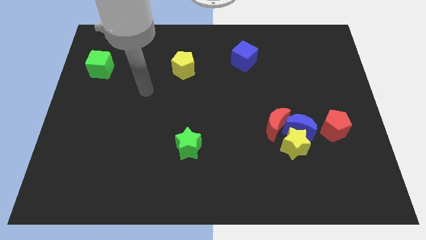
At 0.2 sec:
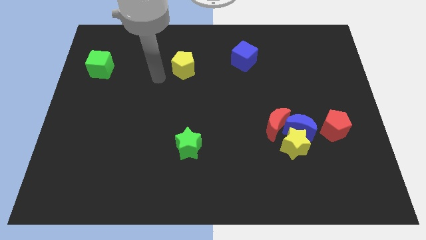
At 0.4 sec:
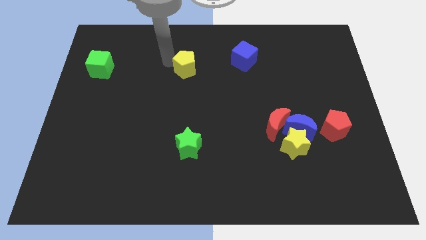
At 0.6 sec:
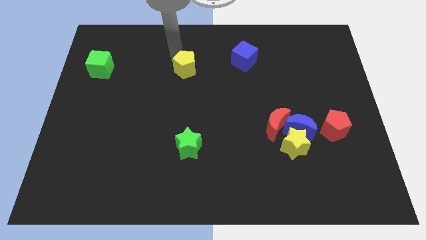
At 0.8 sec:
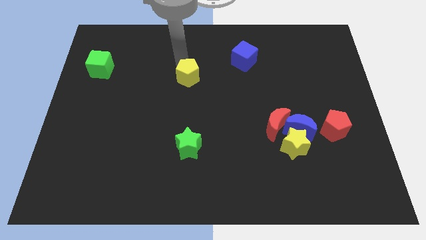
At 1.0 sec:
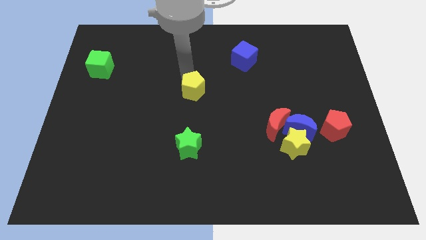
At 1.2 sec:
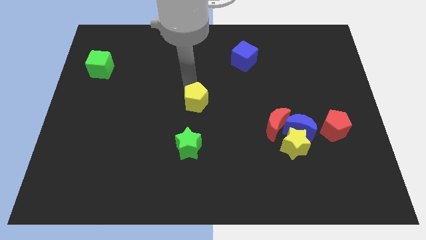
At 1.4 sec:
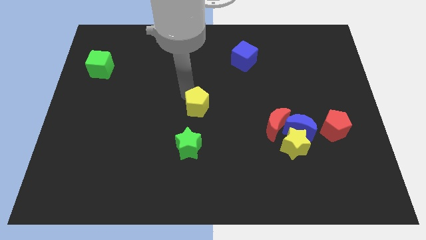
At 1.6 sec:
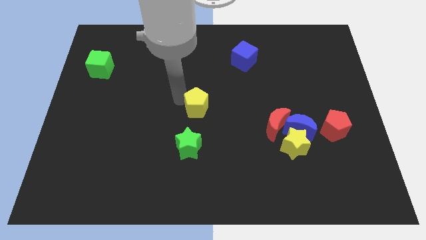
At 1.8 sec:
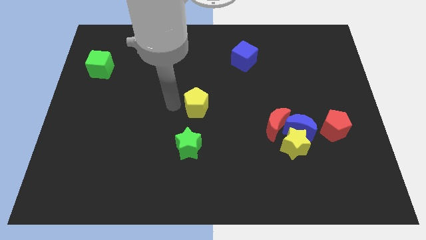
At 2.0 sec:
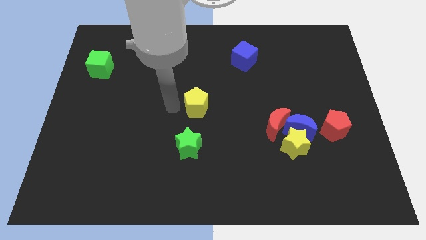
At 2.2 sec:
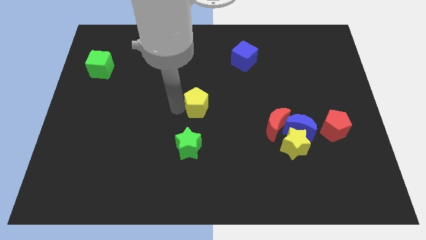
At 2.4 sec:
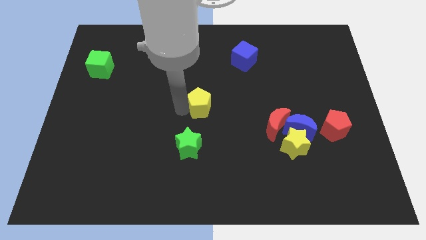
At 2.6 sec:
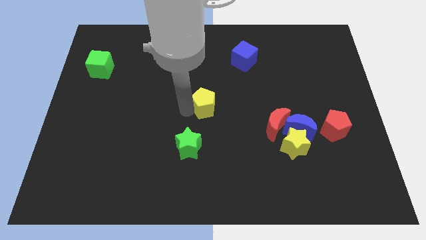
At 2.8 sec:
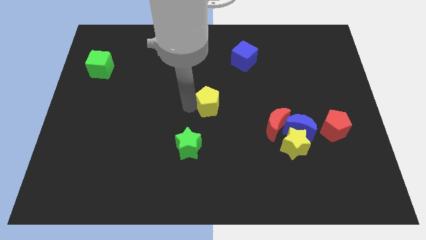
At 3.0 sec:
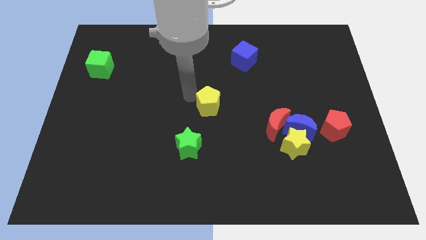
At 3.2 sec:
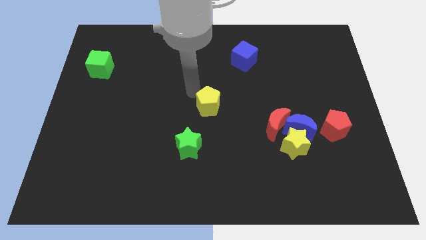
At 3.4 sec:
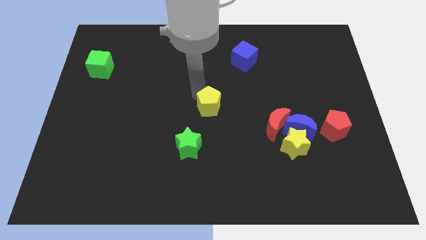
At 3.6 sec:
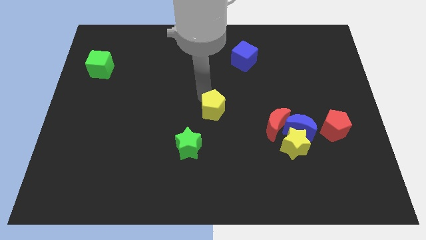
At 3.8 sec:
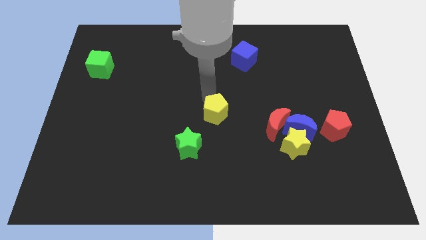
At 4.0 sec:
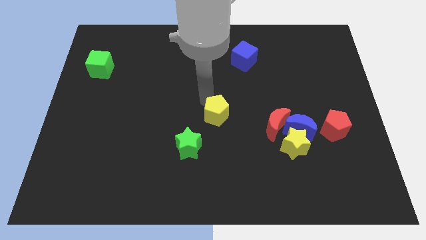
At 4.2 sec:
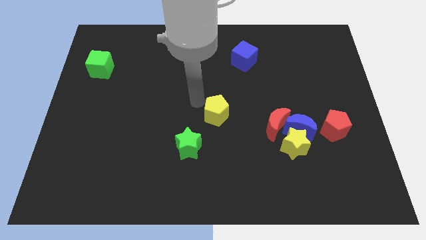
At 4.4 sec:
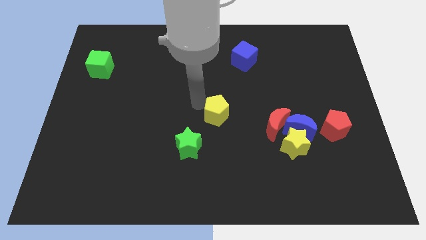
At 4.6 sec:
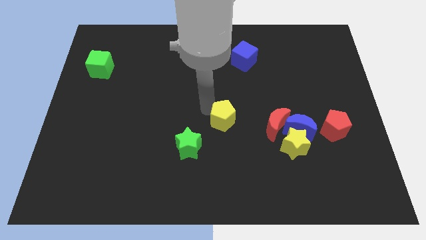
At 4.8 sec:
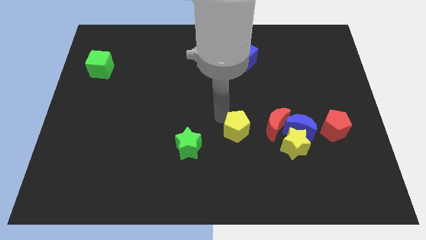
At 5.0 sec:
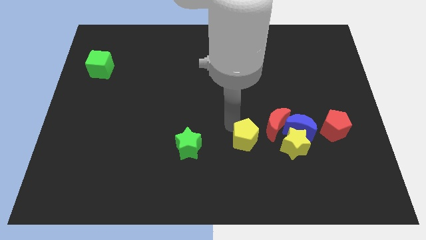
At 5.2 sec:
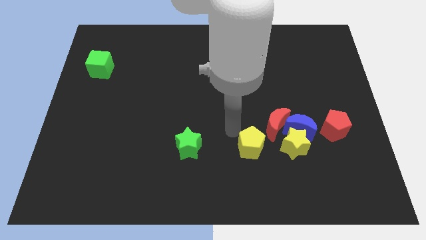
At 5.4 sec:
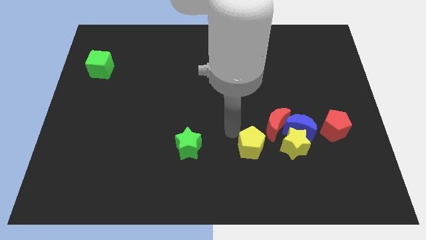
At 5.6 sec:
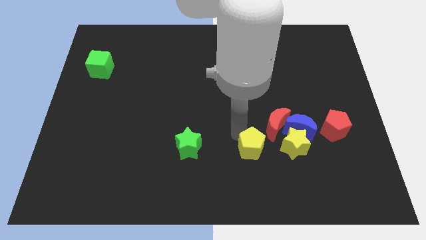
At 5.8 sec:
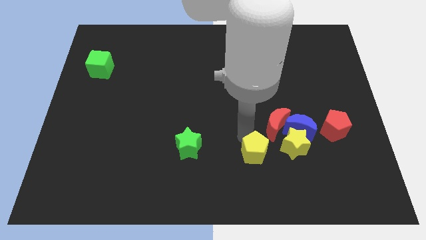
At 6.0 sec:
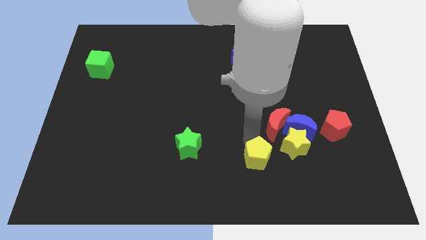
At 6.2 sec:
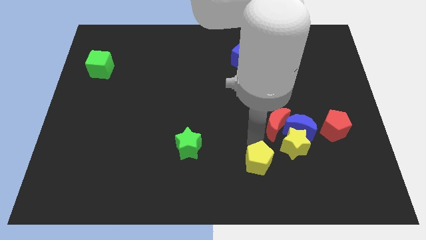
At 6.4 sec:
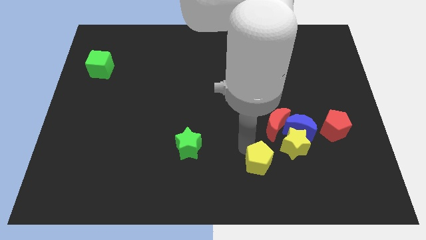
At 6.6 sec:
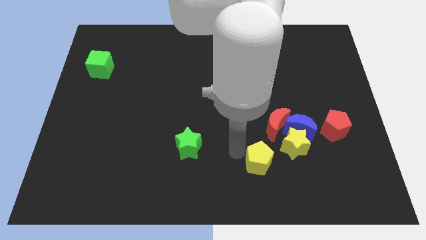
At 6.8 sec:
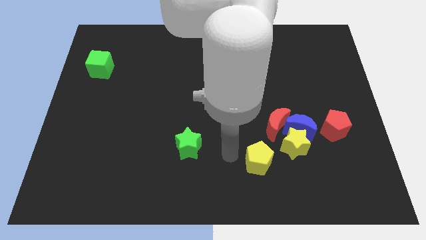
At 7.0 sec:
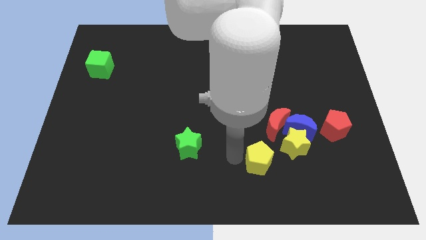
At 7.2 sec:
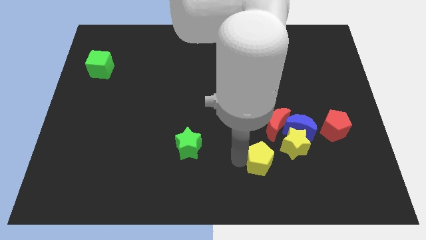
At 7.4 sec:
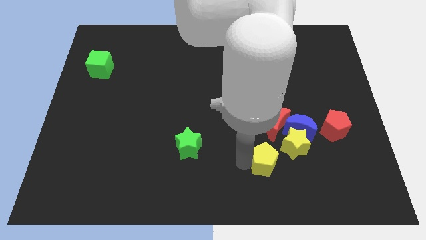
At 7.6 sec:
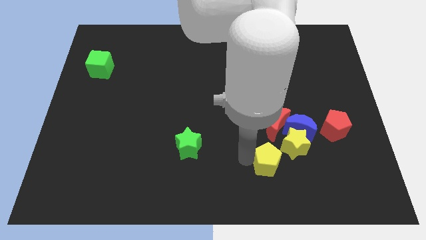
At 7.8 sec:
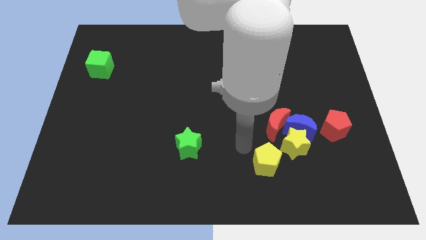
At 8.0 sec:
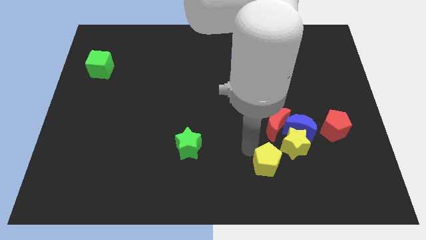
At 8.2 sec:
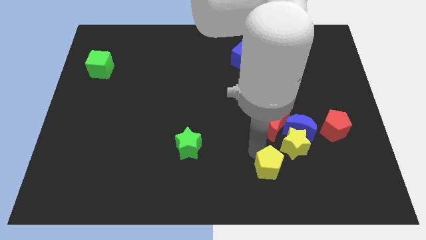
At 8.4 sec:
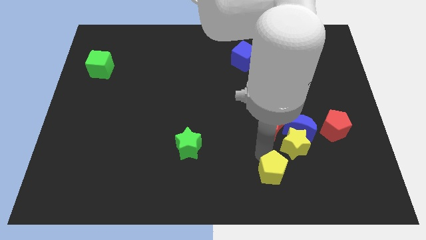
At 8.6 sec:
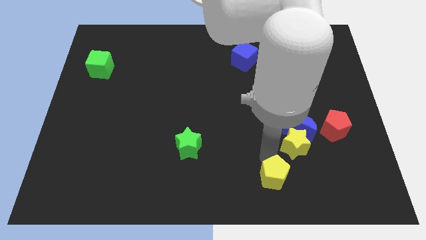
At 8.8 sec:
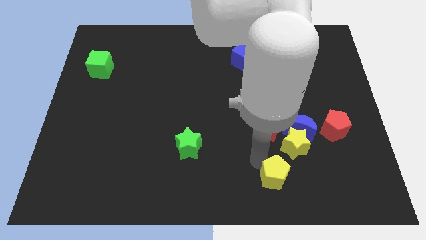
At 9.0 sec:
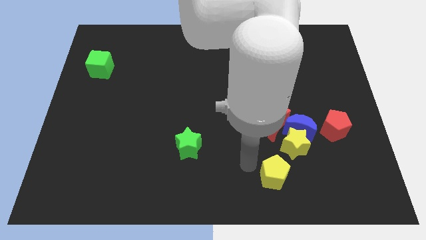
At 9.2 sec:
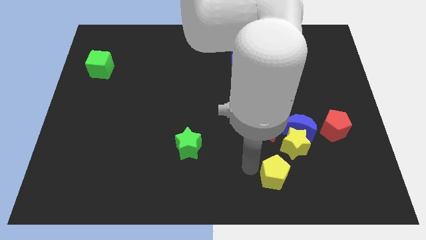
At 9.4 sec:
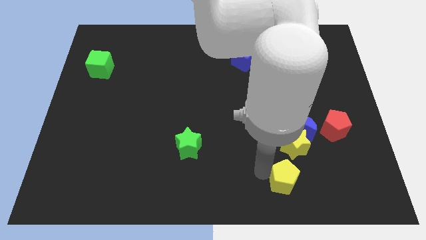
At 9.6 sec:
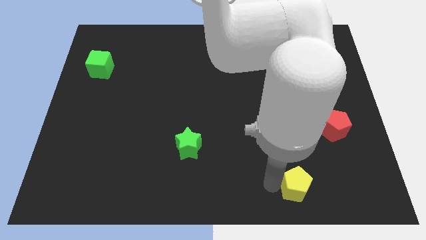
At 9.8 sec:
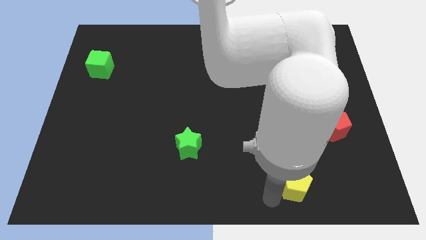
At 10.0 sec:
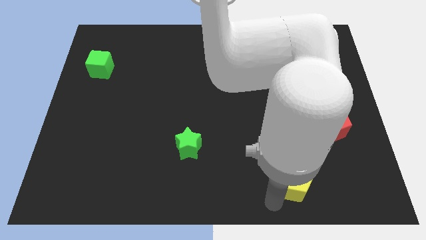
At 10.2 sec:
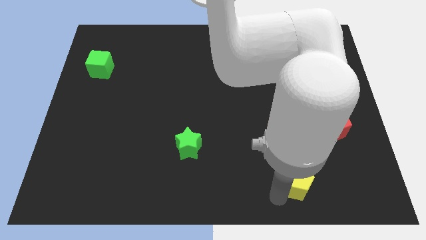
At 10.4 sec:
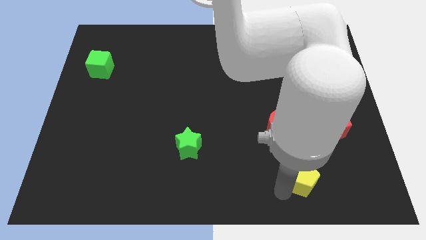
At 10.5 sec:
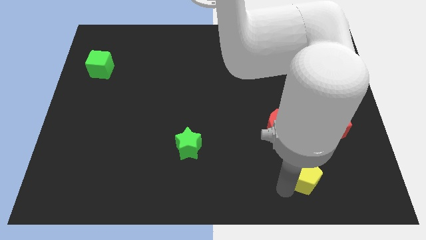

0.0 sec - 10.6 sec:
put the yellow pentagon to the bottom right side of the yellow star

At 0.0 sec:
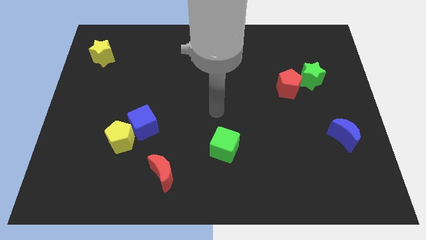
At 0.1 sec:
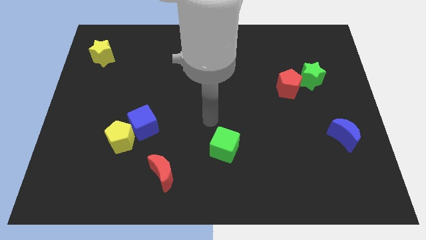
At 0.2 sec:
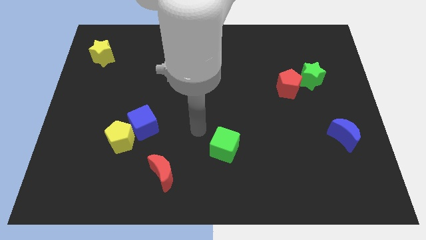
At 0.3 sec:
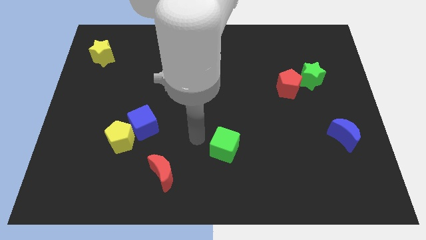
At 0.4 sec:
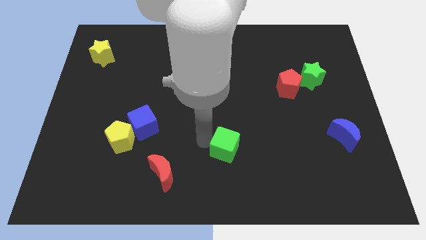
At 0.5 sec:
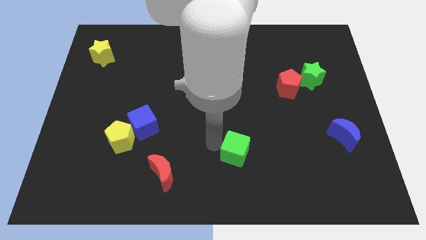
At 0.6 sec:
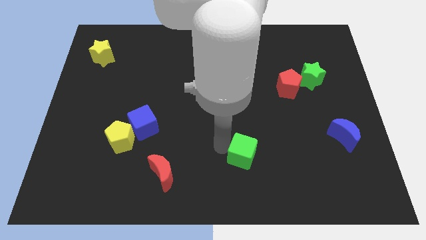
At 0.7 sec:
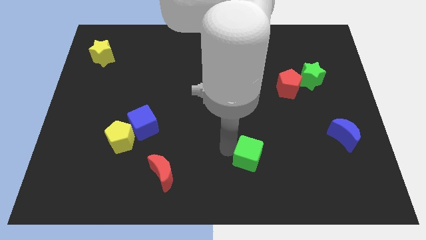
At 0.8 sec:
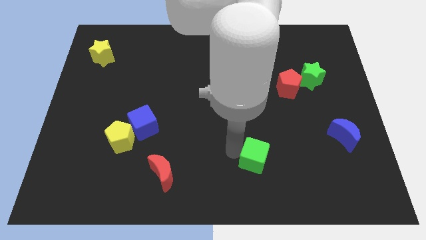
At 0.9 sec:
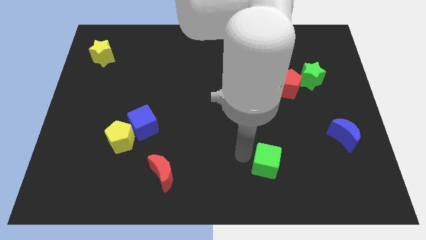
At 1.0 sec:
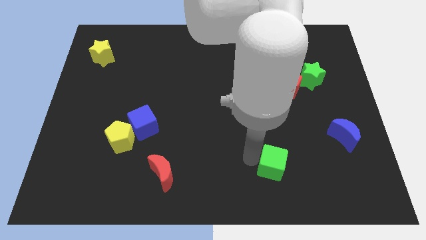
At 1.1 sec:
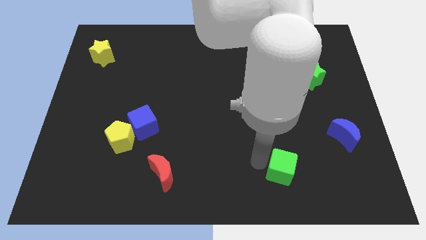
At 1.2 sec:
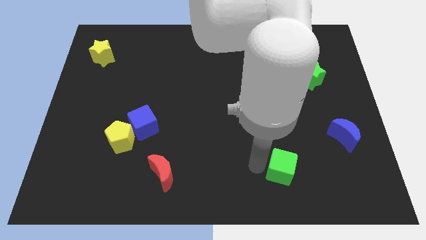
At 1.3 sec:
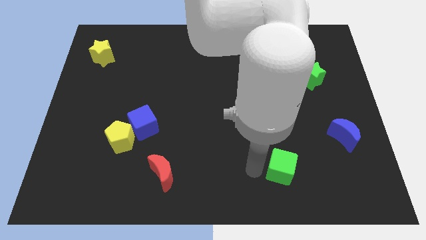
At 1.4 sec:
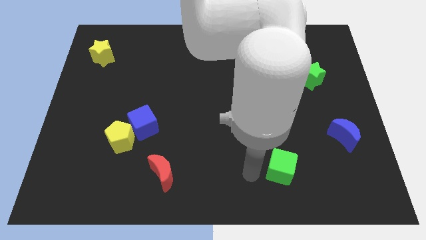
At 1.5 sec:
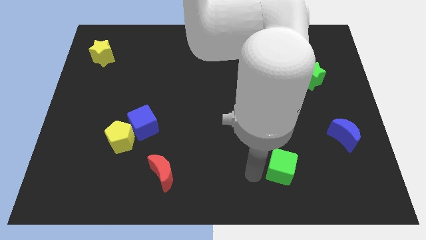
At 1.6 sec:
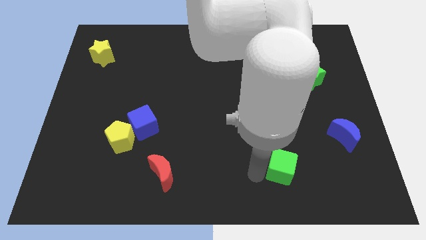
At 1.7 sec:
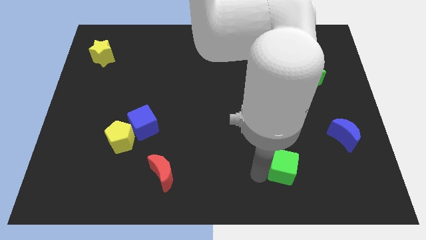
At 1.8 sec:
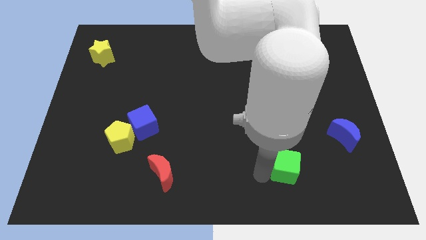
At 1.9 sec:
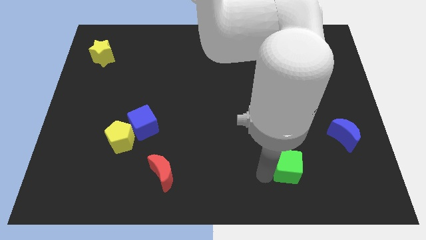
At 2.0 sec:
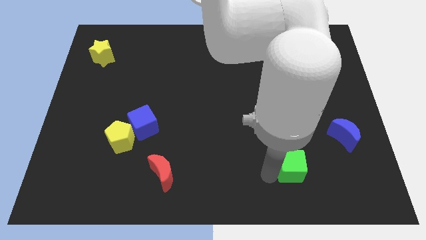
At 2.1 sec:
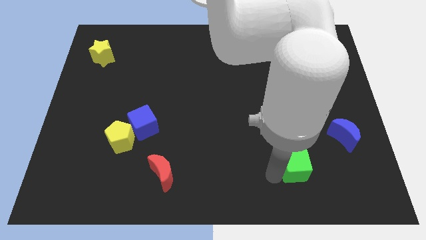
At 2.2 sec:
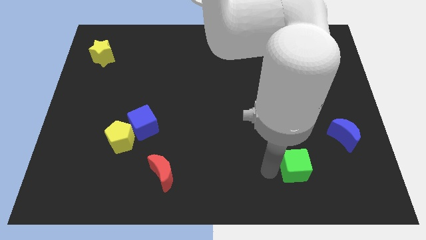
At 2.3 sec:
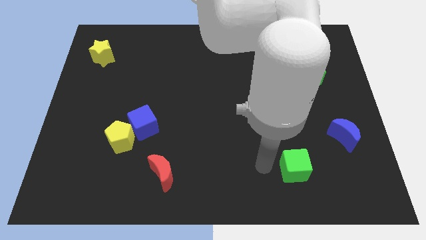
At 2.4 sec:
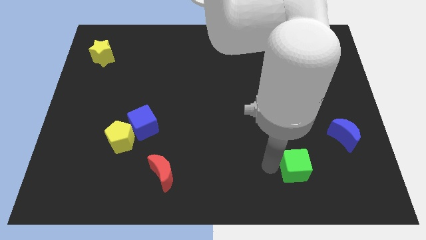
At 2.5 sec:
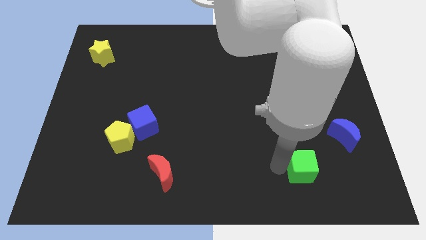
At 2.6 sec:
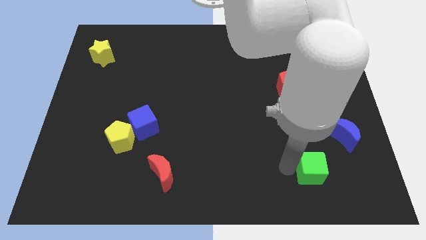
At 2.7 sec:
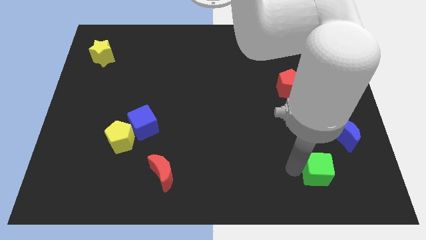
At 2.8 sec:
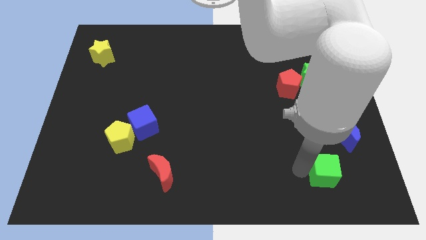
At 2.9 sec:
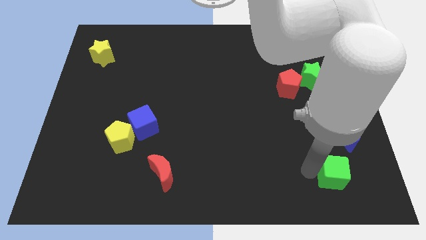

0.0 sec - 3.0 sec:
push the green cube below the blue moon
